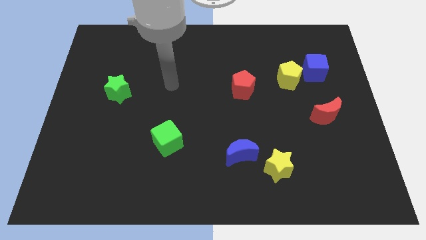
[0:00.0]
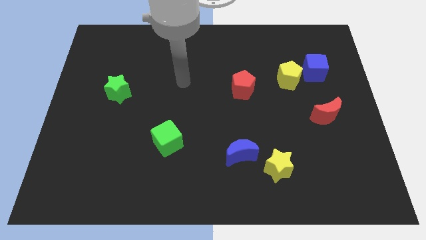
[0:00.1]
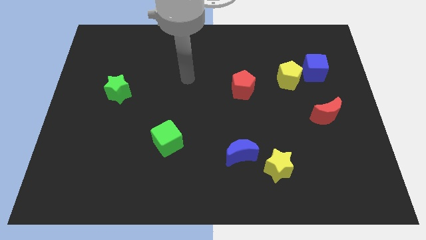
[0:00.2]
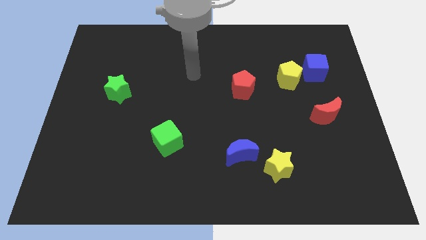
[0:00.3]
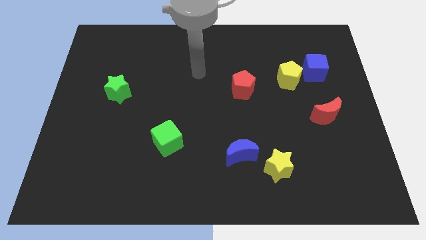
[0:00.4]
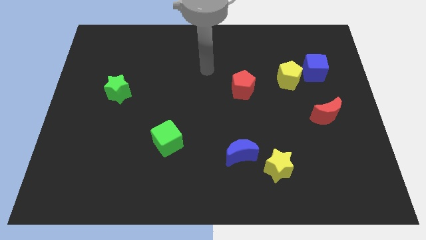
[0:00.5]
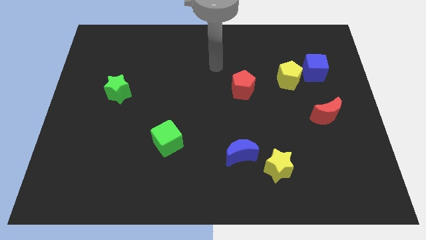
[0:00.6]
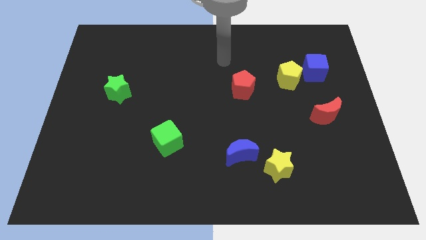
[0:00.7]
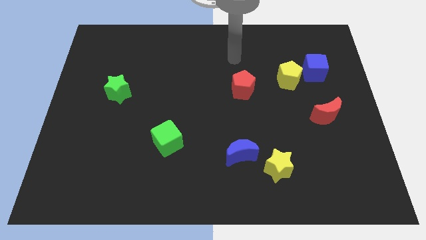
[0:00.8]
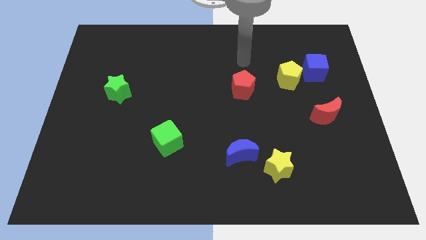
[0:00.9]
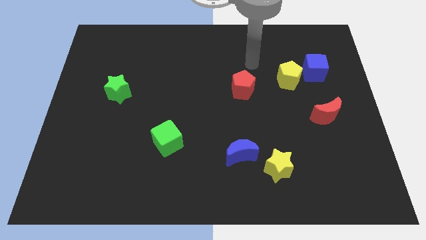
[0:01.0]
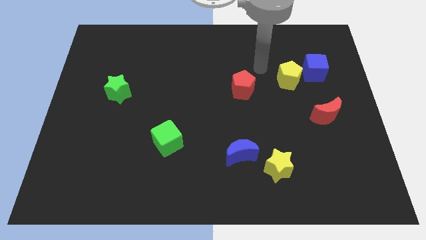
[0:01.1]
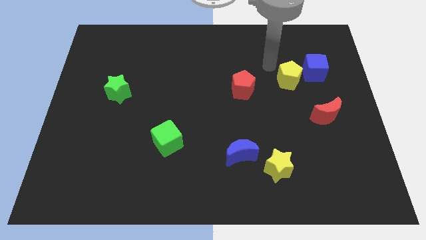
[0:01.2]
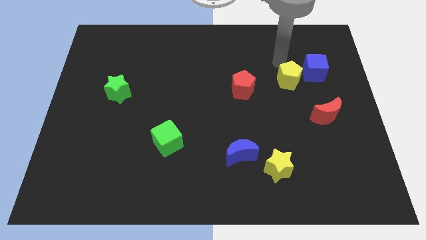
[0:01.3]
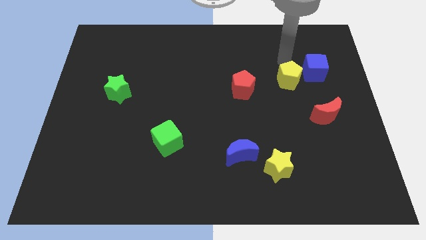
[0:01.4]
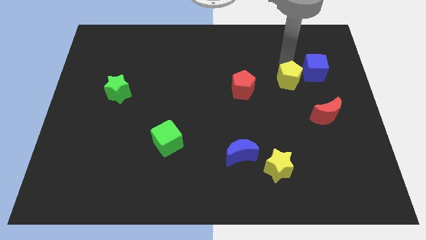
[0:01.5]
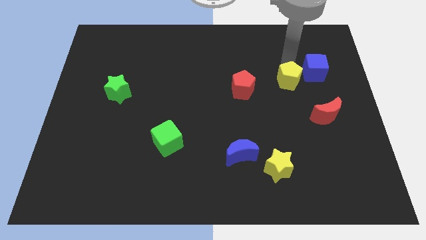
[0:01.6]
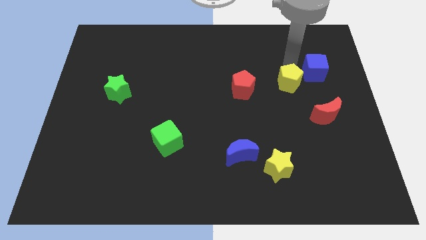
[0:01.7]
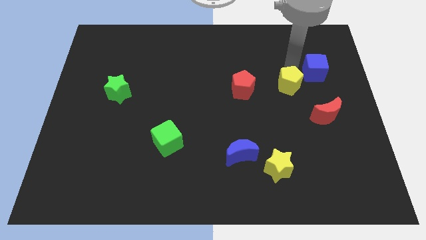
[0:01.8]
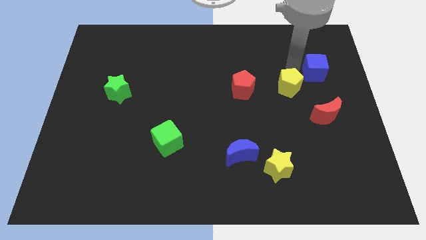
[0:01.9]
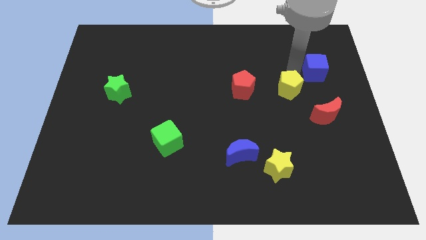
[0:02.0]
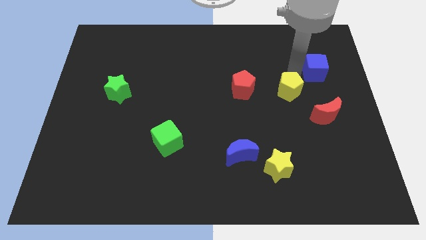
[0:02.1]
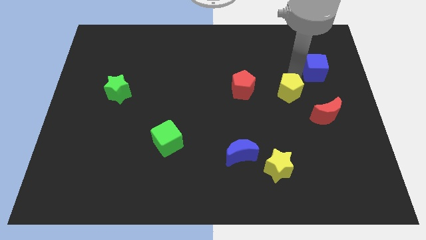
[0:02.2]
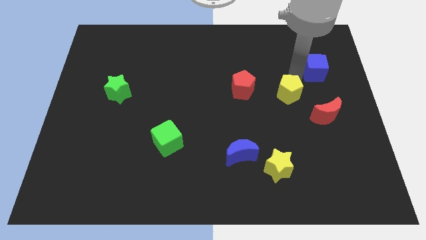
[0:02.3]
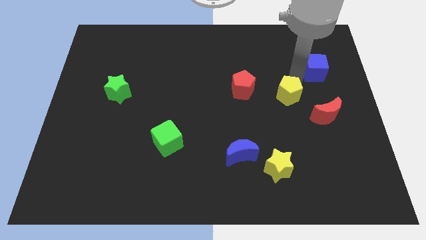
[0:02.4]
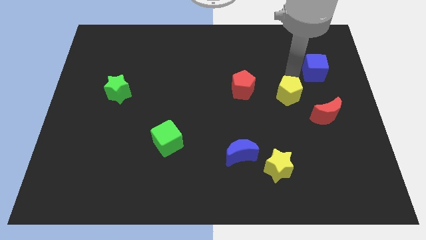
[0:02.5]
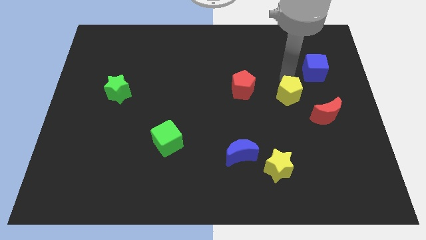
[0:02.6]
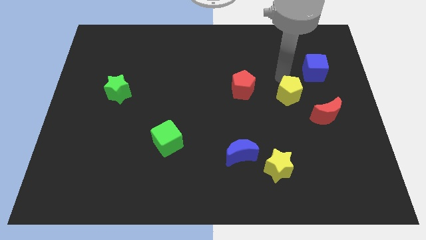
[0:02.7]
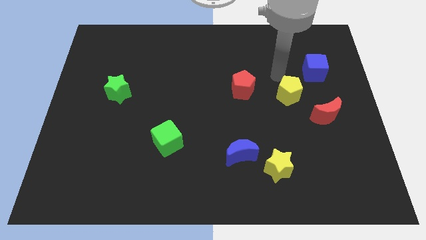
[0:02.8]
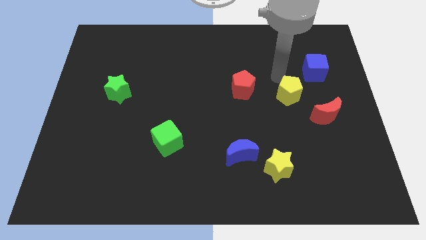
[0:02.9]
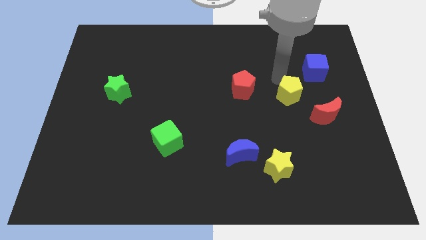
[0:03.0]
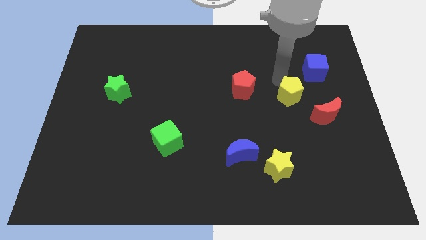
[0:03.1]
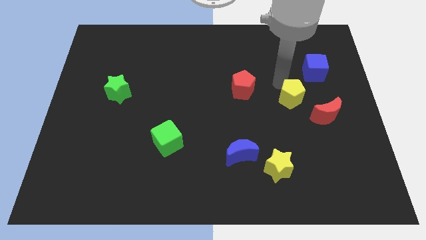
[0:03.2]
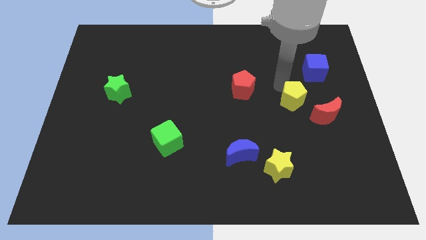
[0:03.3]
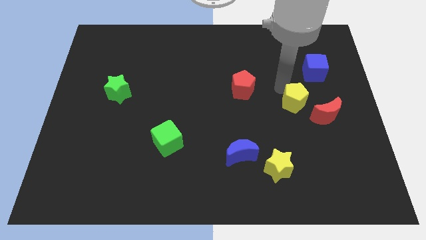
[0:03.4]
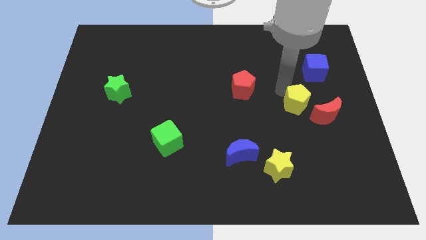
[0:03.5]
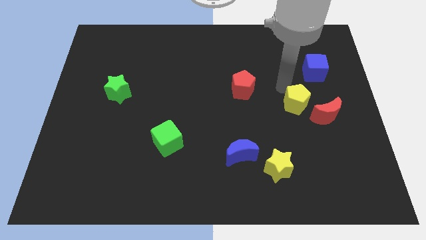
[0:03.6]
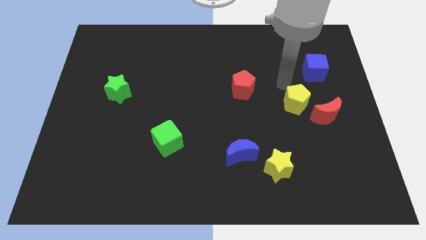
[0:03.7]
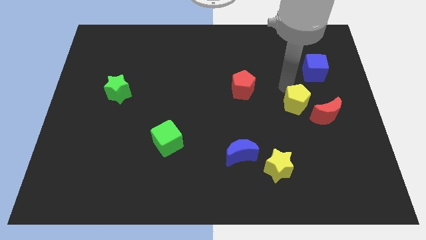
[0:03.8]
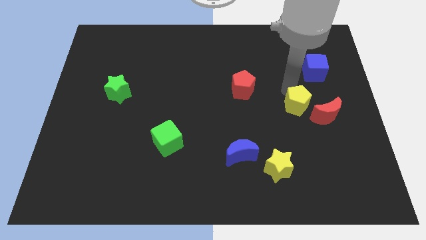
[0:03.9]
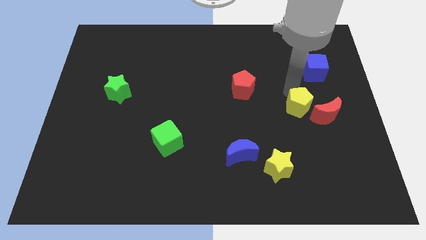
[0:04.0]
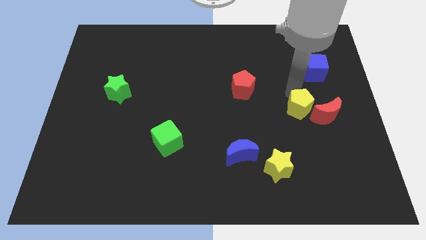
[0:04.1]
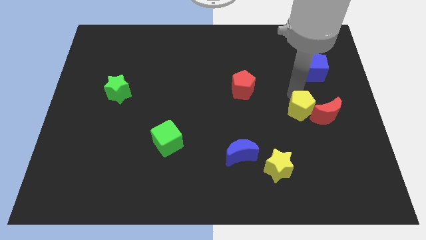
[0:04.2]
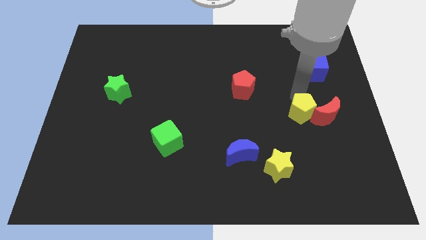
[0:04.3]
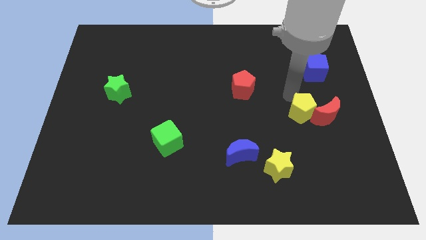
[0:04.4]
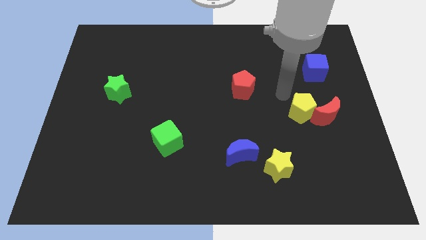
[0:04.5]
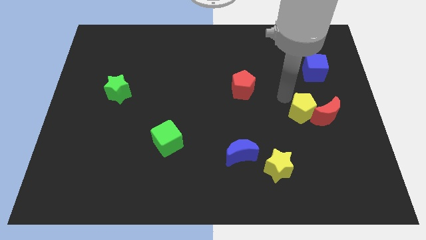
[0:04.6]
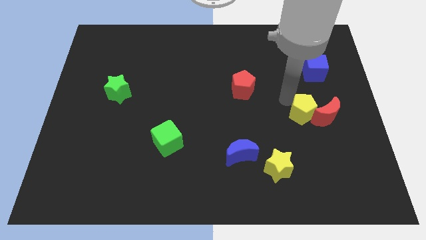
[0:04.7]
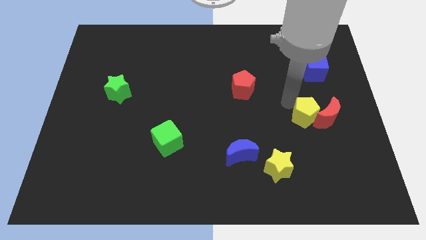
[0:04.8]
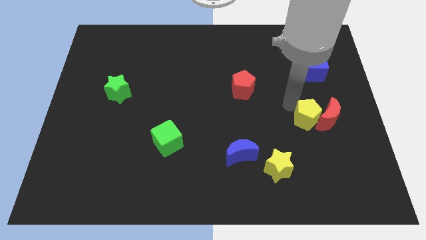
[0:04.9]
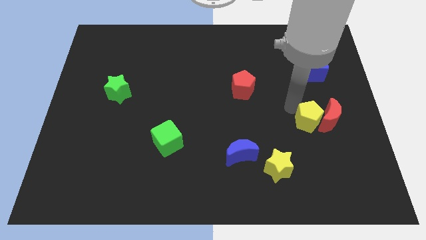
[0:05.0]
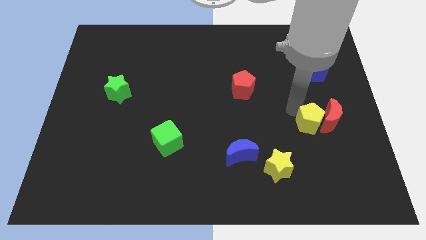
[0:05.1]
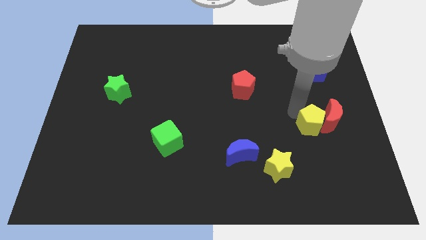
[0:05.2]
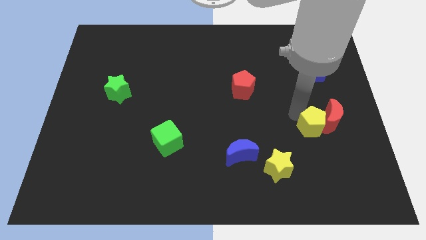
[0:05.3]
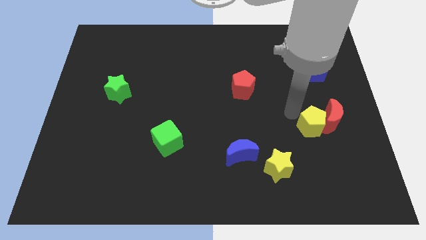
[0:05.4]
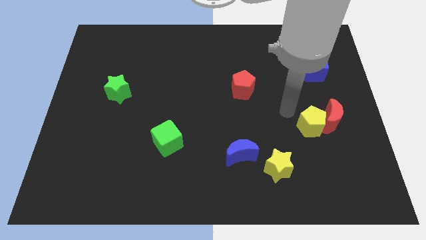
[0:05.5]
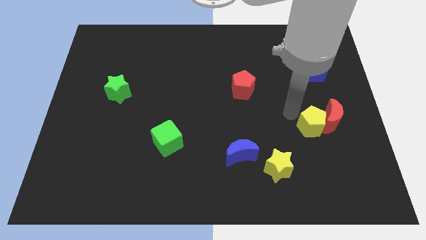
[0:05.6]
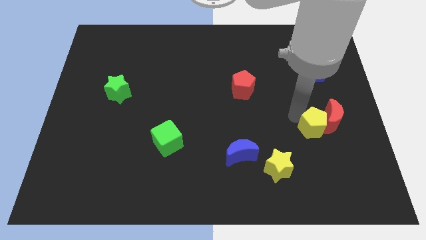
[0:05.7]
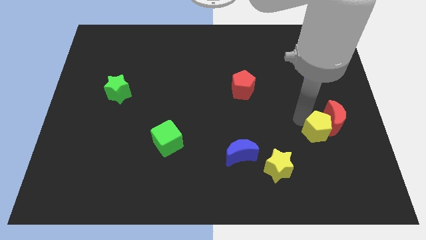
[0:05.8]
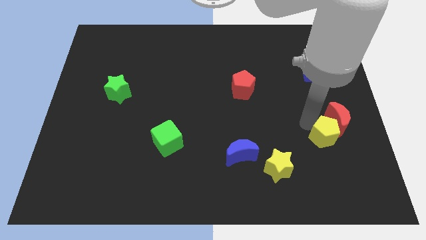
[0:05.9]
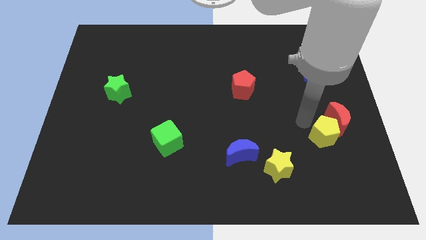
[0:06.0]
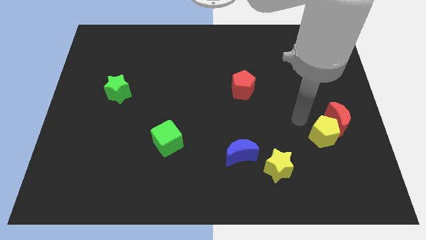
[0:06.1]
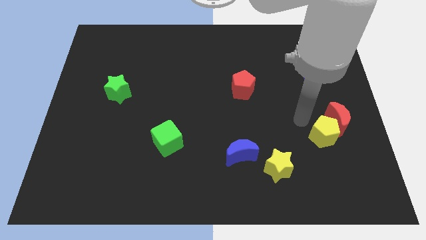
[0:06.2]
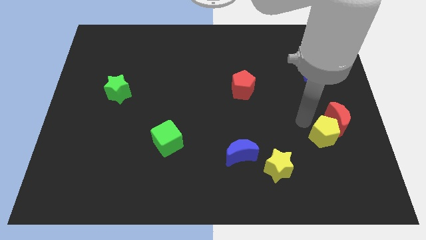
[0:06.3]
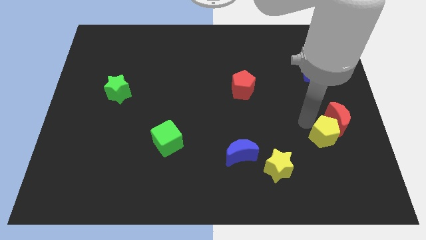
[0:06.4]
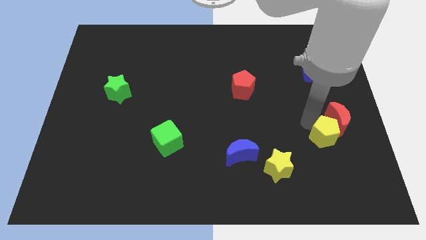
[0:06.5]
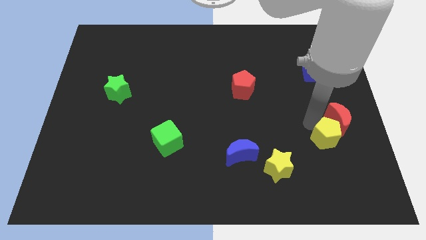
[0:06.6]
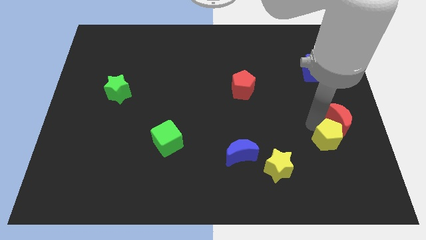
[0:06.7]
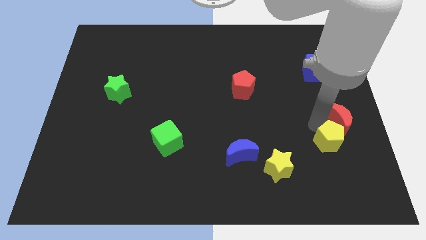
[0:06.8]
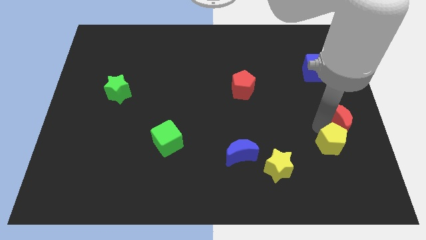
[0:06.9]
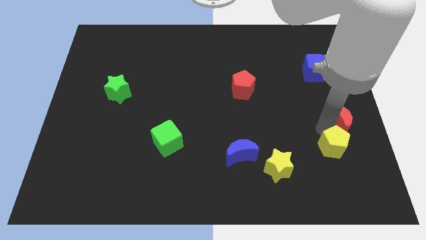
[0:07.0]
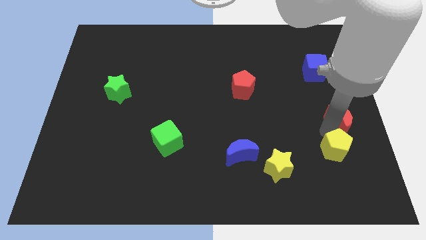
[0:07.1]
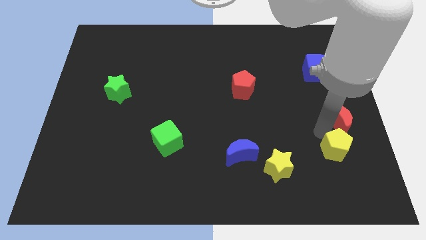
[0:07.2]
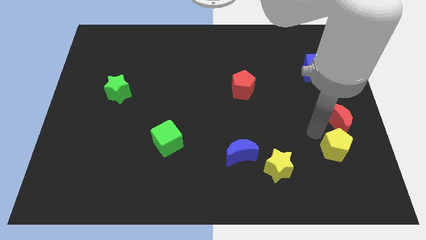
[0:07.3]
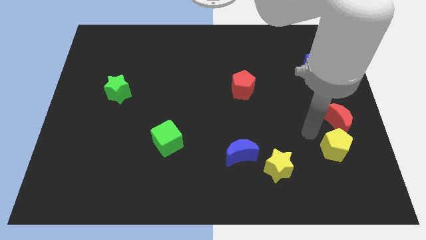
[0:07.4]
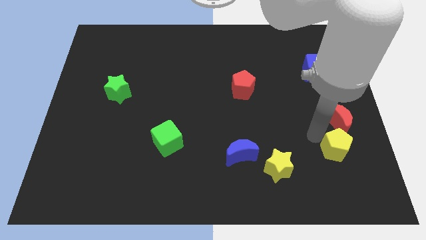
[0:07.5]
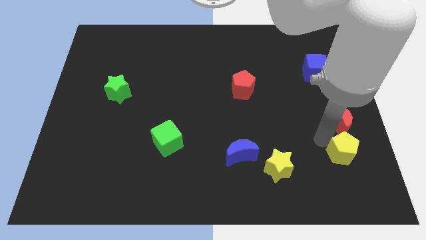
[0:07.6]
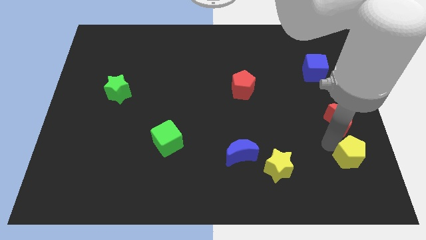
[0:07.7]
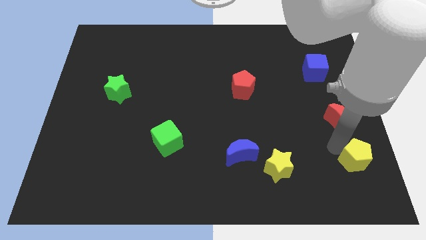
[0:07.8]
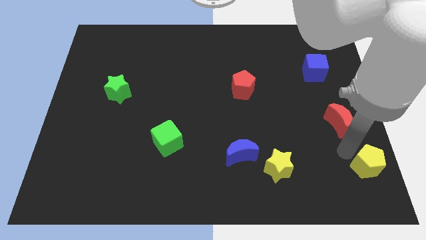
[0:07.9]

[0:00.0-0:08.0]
move the yellow pentagon to the bottom right corner

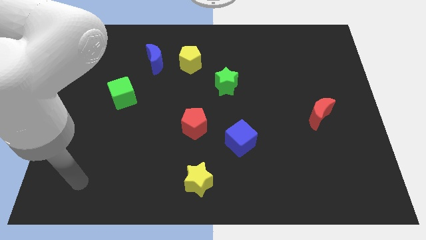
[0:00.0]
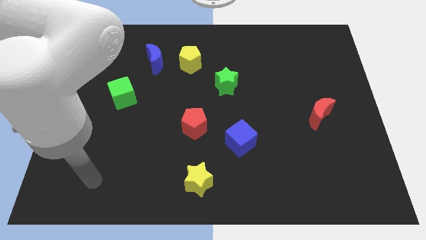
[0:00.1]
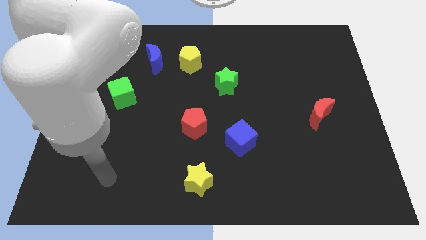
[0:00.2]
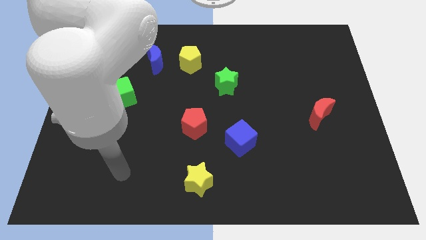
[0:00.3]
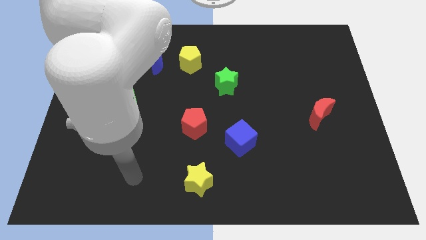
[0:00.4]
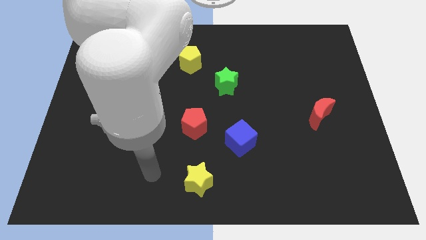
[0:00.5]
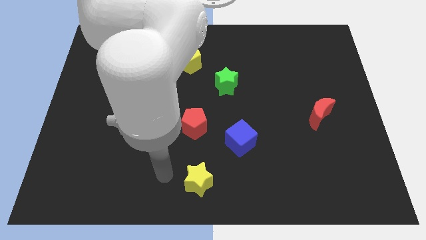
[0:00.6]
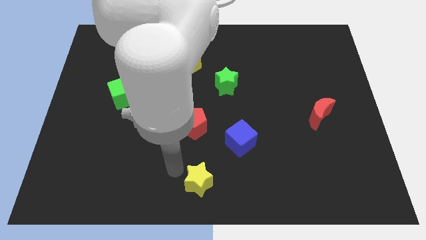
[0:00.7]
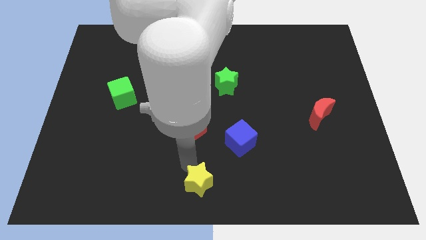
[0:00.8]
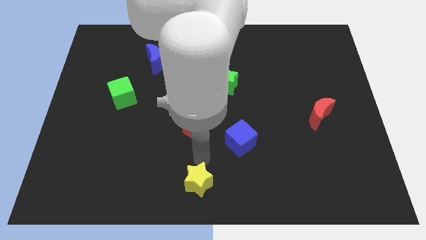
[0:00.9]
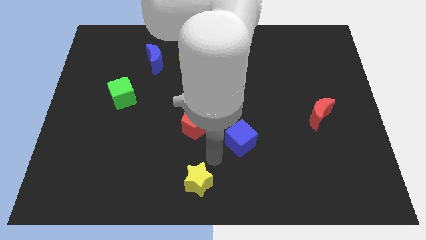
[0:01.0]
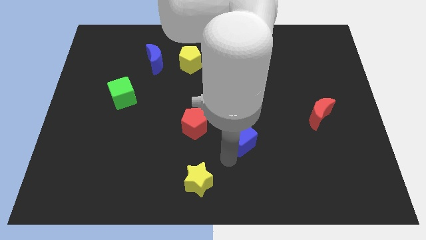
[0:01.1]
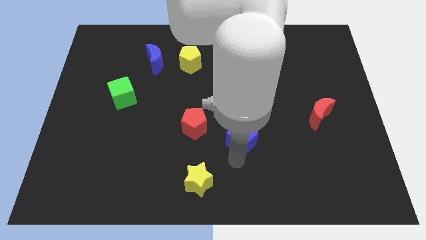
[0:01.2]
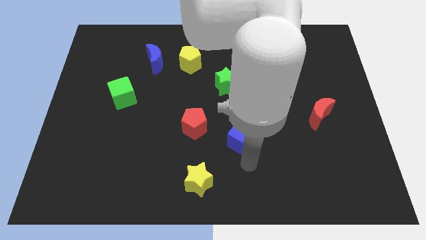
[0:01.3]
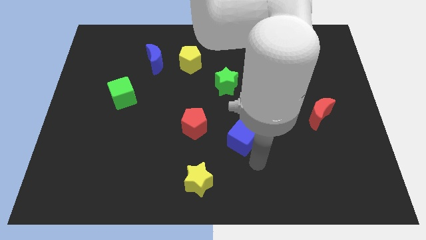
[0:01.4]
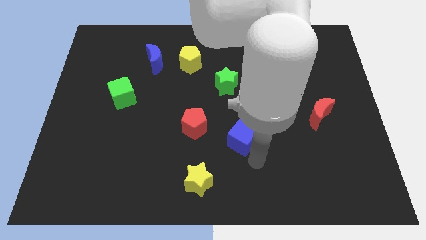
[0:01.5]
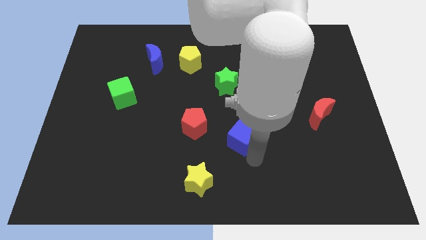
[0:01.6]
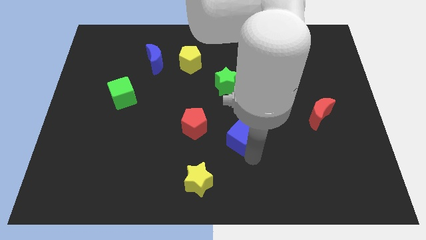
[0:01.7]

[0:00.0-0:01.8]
push the blue cube to the center
